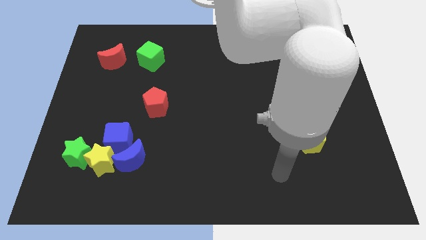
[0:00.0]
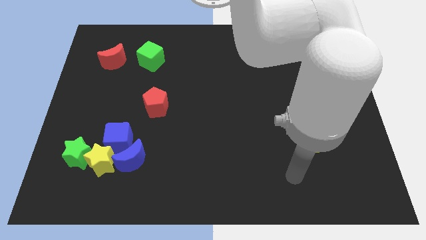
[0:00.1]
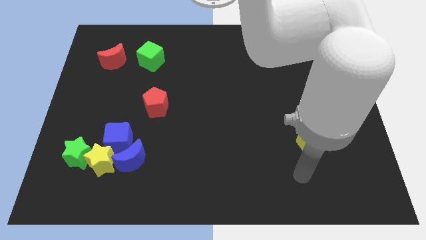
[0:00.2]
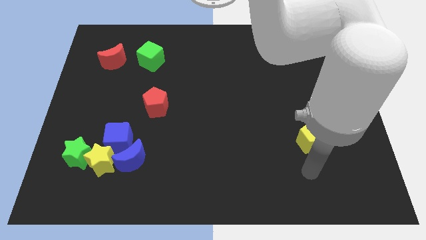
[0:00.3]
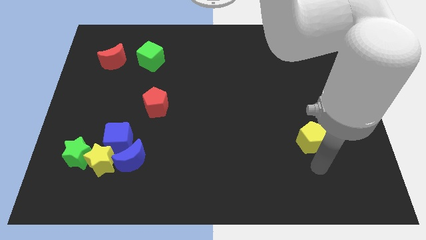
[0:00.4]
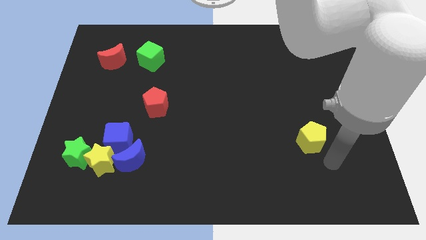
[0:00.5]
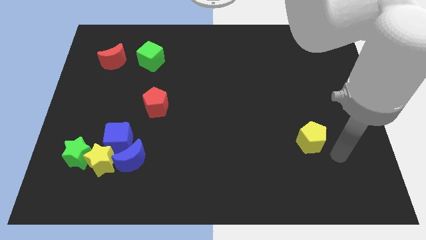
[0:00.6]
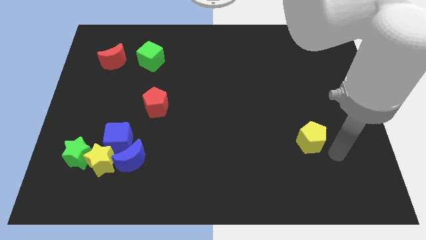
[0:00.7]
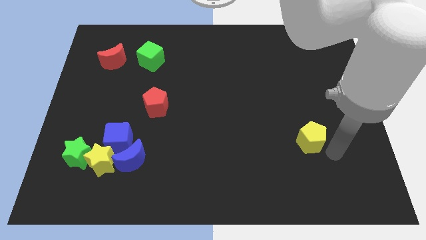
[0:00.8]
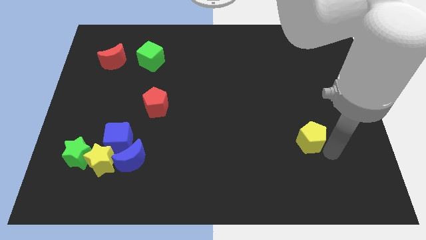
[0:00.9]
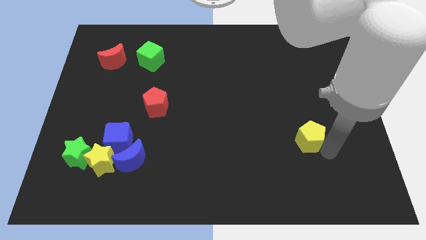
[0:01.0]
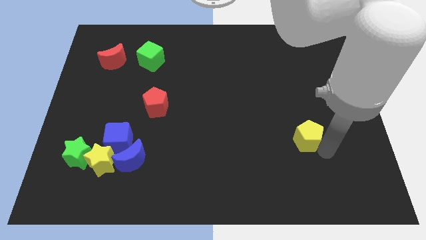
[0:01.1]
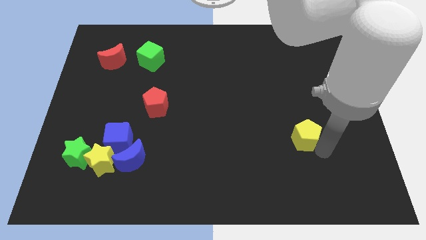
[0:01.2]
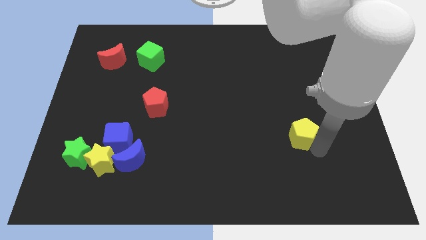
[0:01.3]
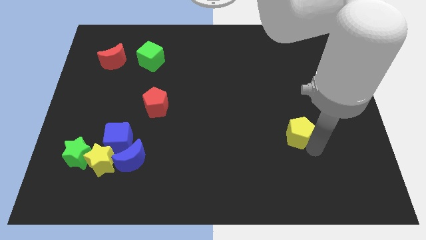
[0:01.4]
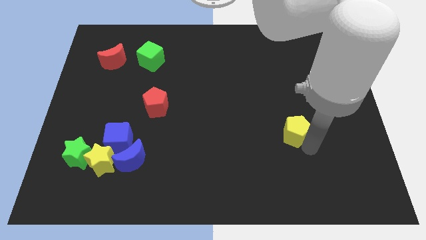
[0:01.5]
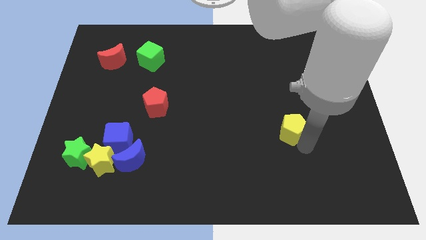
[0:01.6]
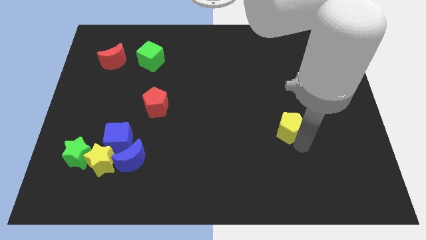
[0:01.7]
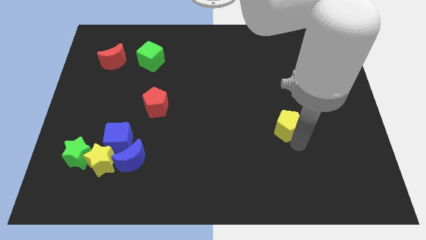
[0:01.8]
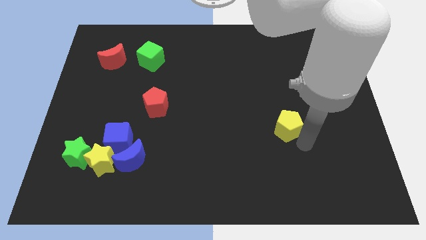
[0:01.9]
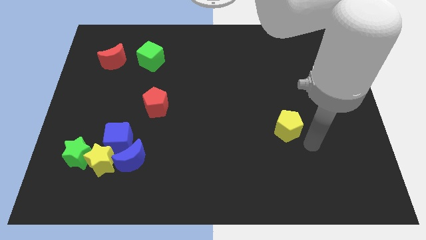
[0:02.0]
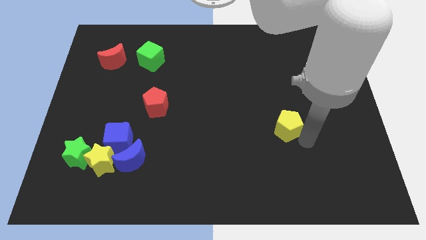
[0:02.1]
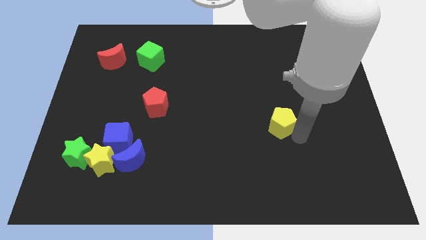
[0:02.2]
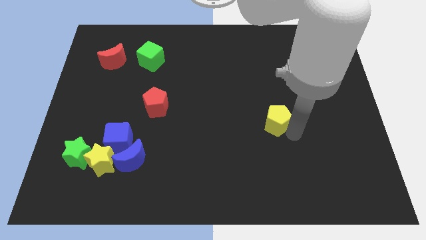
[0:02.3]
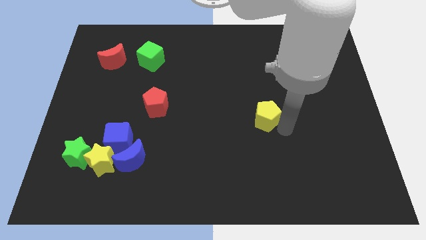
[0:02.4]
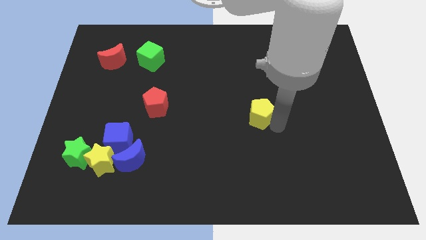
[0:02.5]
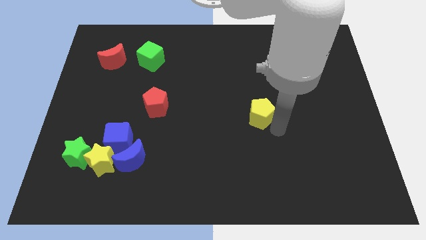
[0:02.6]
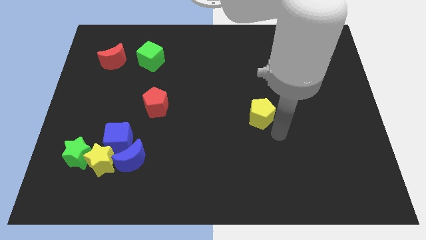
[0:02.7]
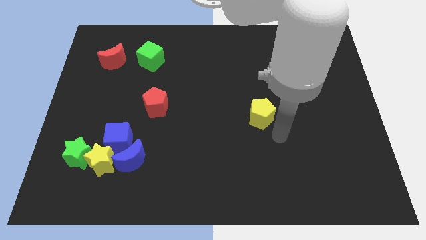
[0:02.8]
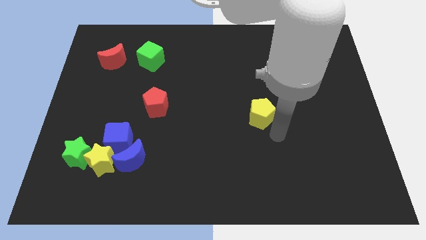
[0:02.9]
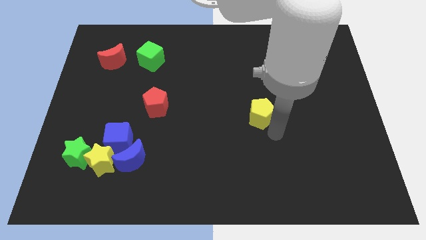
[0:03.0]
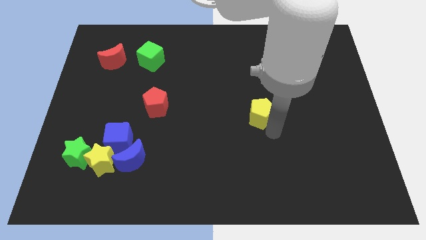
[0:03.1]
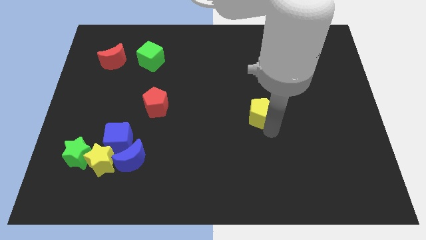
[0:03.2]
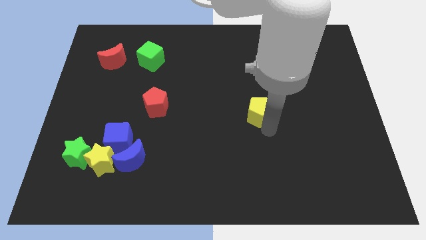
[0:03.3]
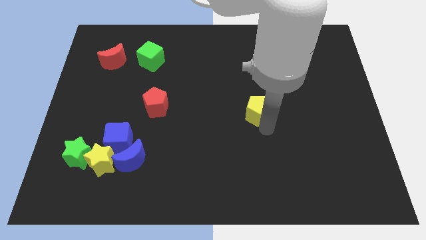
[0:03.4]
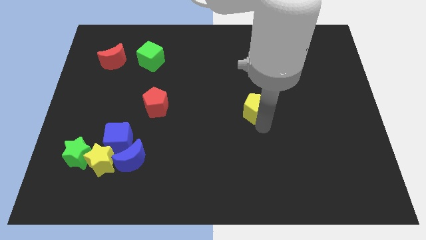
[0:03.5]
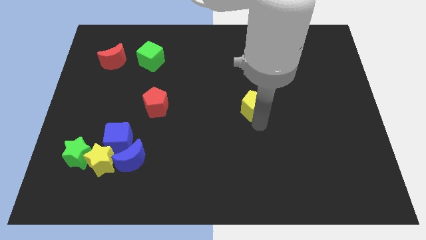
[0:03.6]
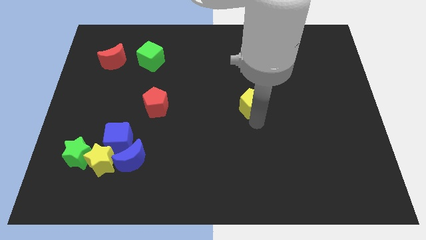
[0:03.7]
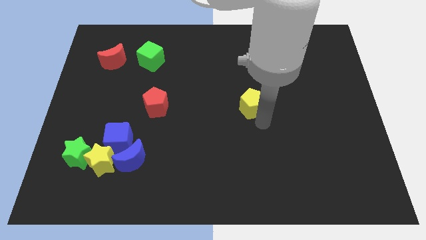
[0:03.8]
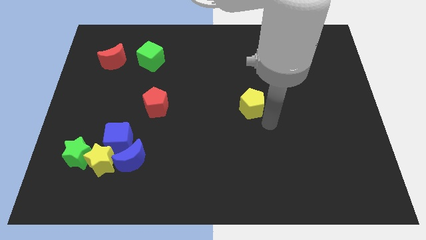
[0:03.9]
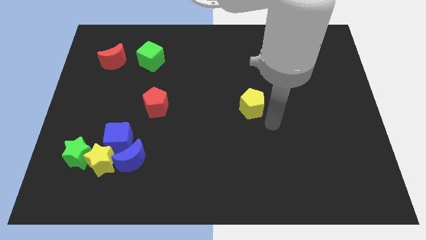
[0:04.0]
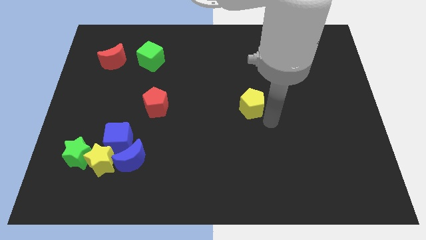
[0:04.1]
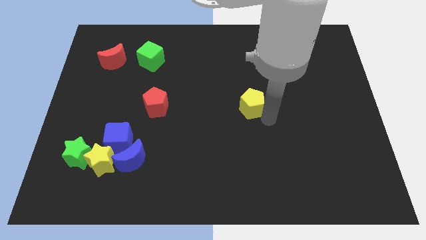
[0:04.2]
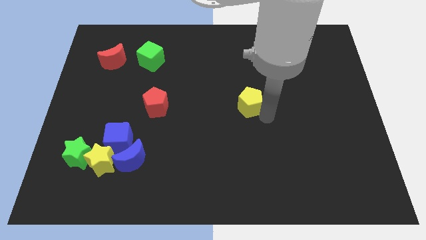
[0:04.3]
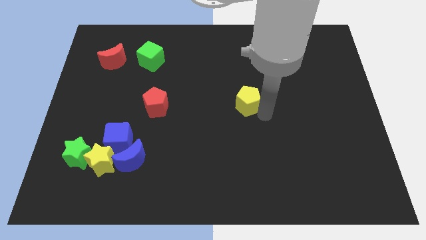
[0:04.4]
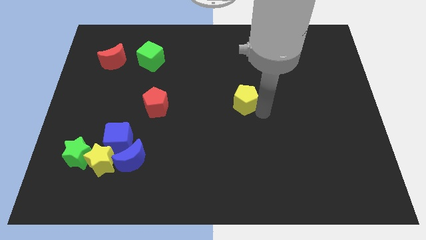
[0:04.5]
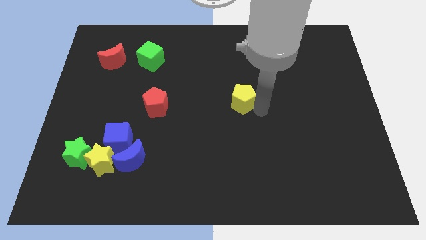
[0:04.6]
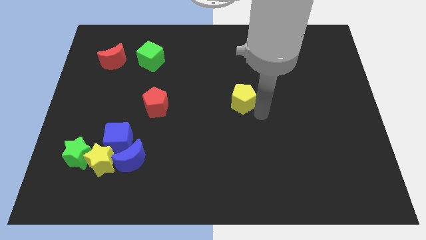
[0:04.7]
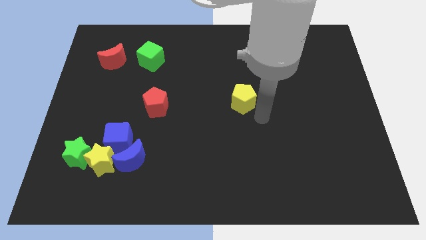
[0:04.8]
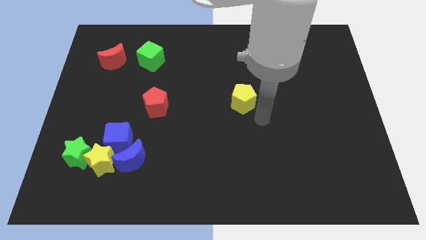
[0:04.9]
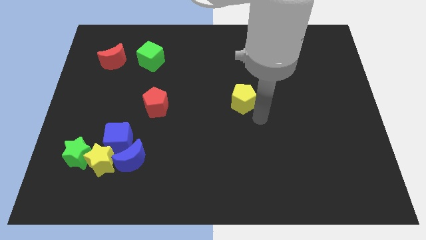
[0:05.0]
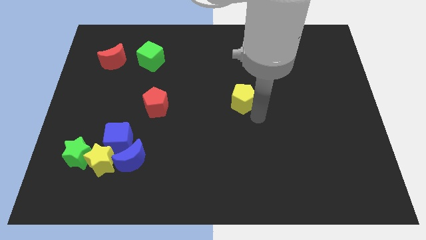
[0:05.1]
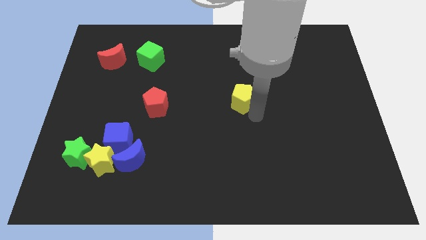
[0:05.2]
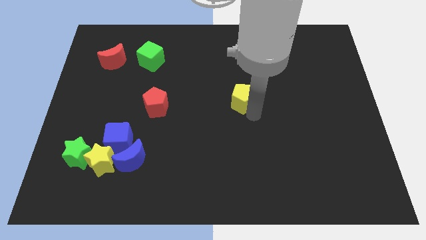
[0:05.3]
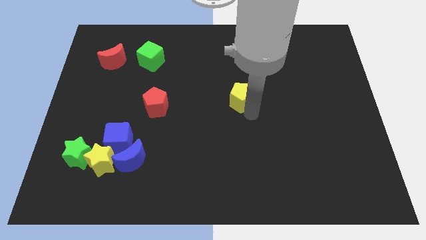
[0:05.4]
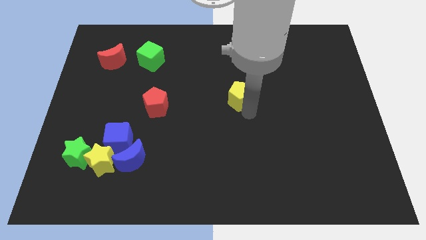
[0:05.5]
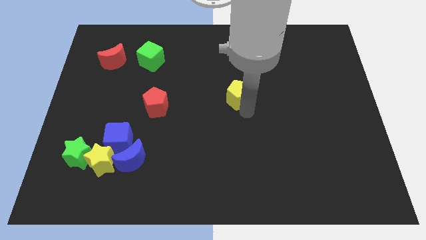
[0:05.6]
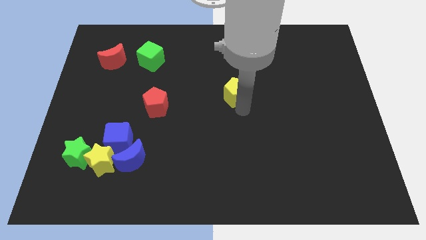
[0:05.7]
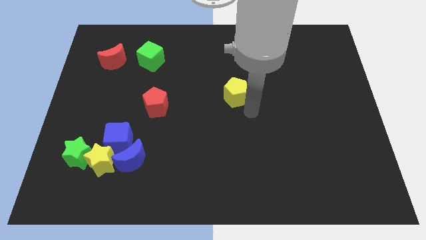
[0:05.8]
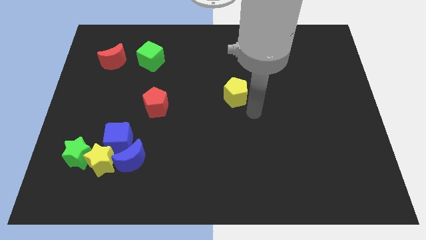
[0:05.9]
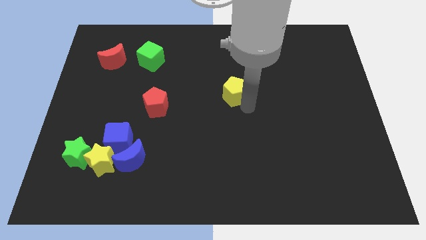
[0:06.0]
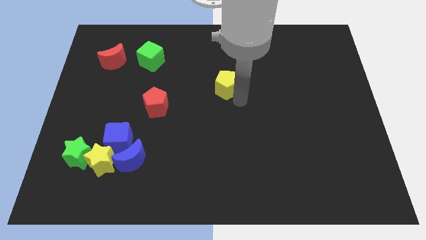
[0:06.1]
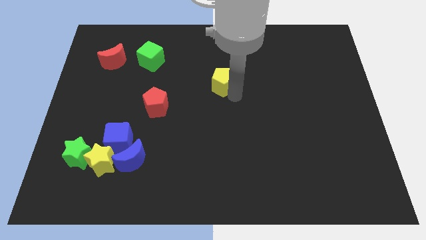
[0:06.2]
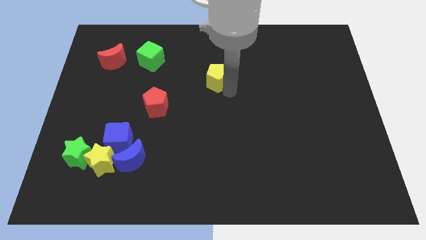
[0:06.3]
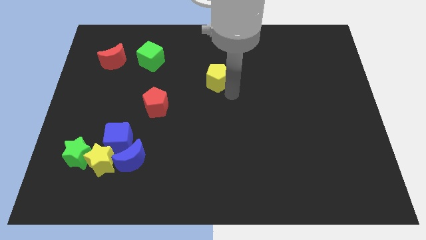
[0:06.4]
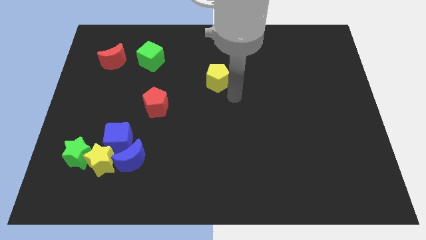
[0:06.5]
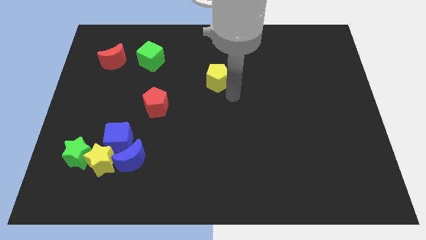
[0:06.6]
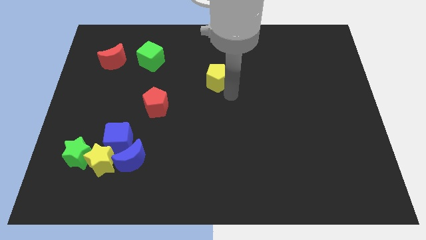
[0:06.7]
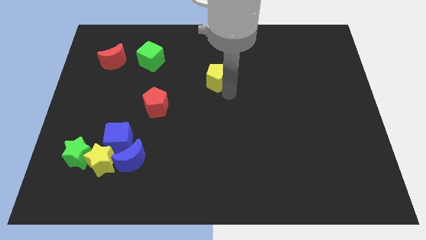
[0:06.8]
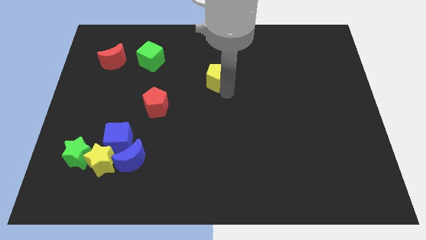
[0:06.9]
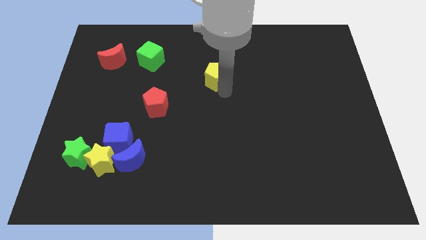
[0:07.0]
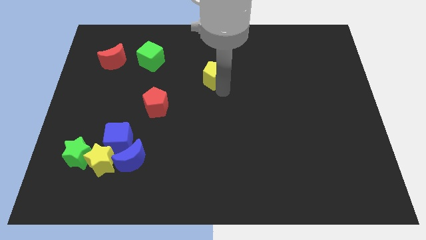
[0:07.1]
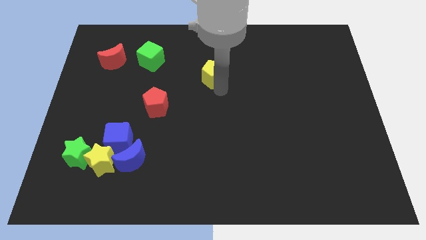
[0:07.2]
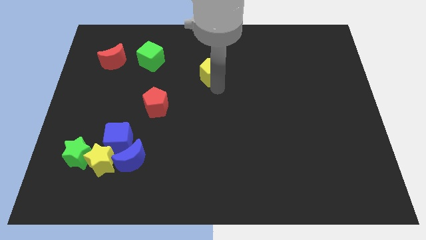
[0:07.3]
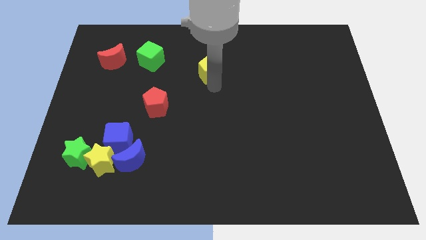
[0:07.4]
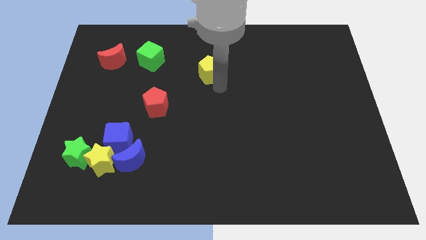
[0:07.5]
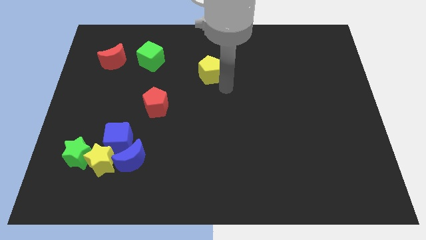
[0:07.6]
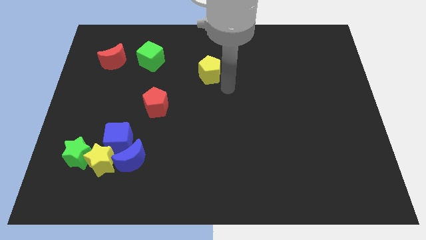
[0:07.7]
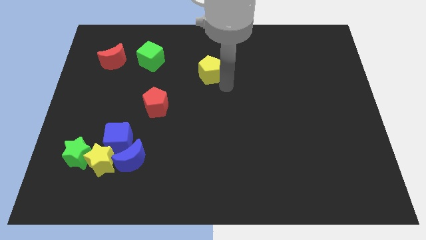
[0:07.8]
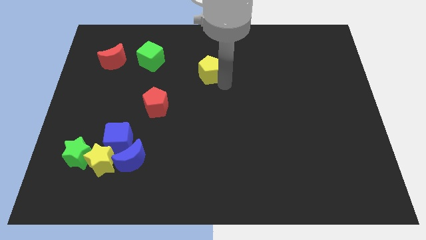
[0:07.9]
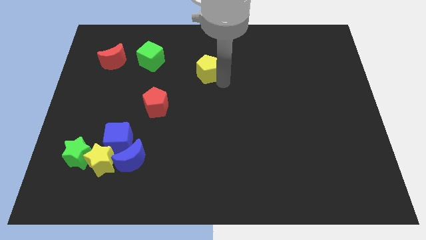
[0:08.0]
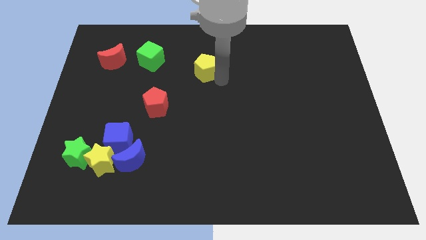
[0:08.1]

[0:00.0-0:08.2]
slide the yellow pentagon to the right of the green cube
